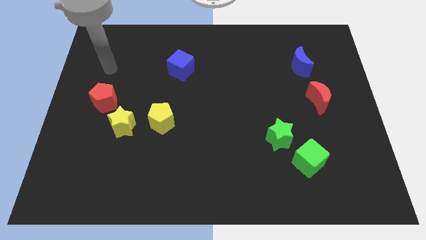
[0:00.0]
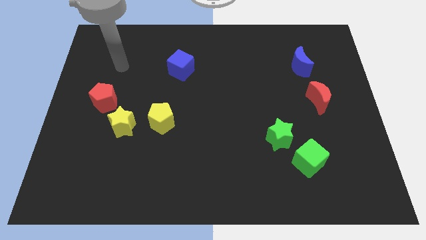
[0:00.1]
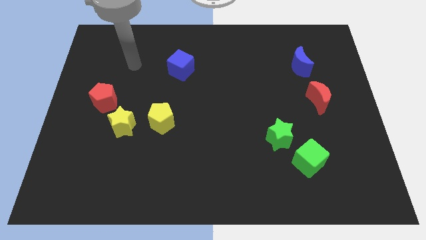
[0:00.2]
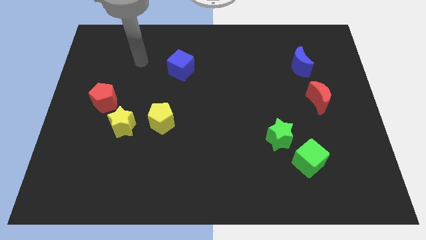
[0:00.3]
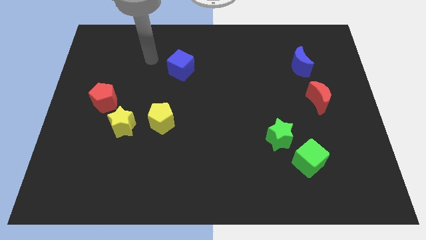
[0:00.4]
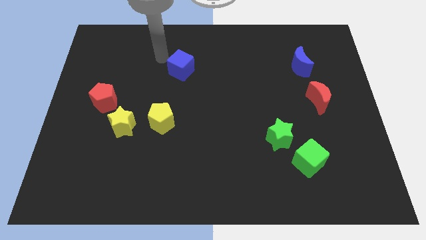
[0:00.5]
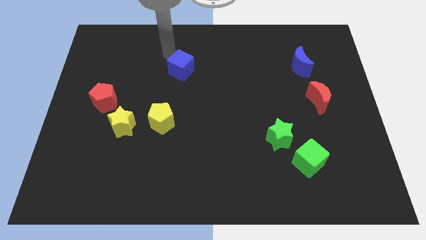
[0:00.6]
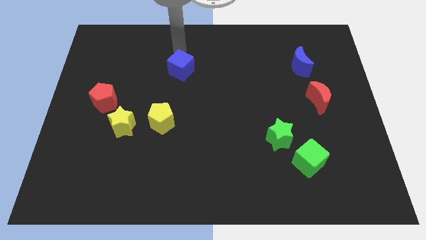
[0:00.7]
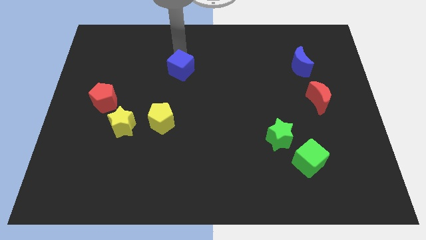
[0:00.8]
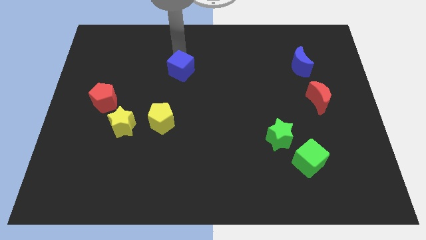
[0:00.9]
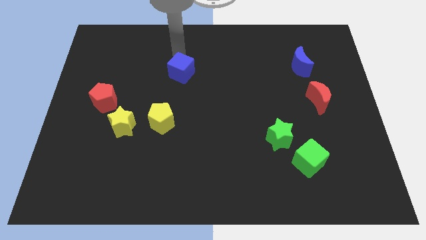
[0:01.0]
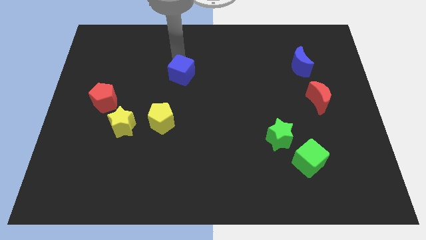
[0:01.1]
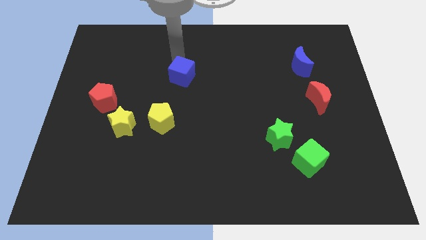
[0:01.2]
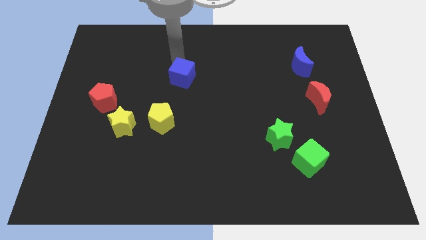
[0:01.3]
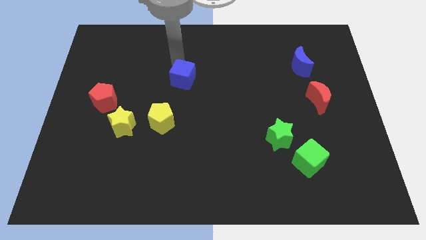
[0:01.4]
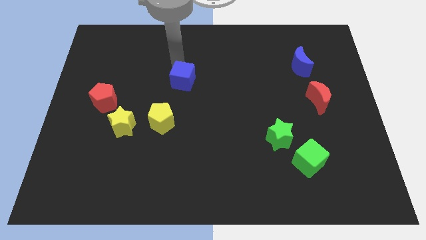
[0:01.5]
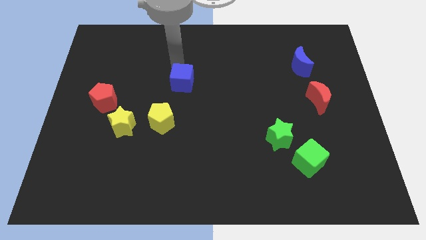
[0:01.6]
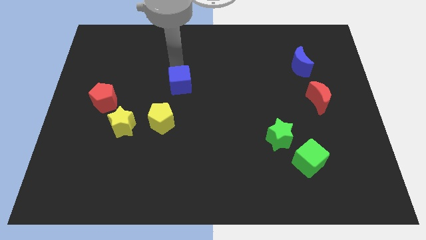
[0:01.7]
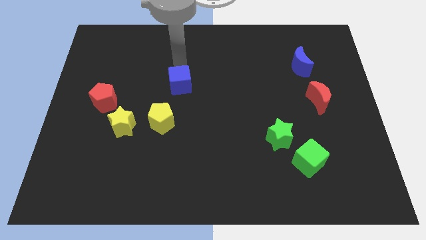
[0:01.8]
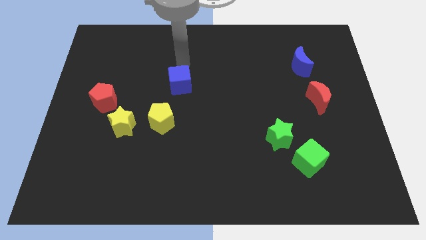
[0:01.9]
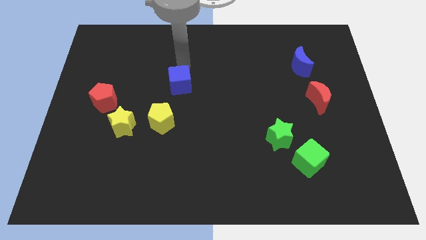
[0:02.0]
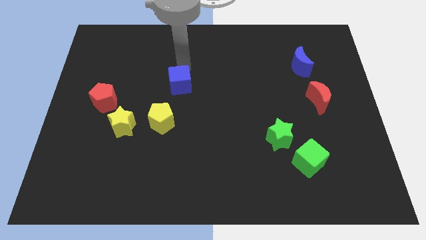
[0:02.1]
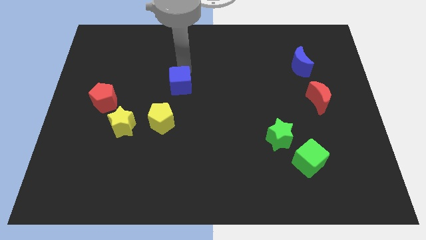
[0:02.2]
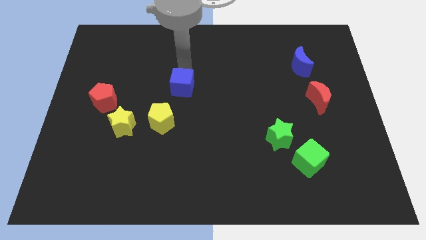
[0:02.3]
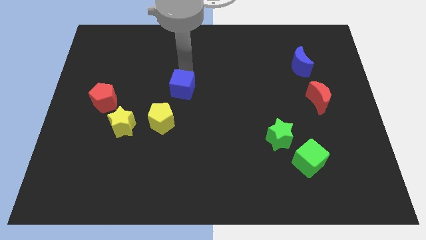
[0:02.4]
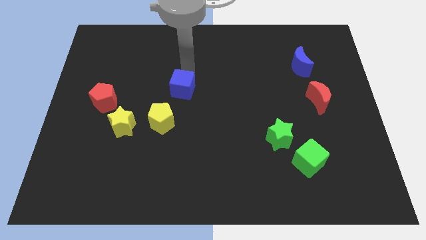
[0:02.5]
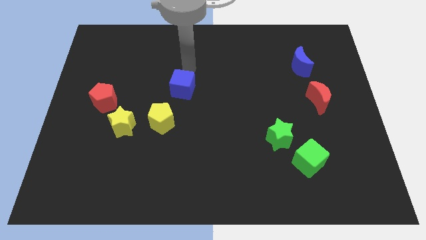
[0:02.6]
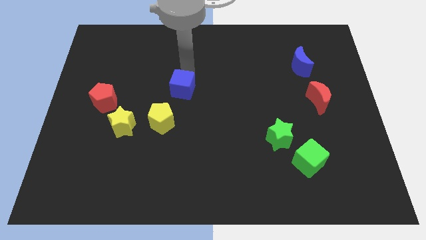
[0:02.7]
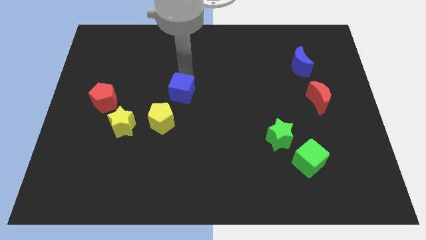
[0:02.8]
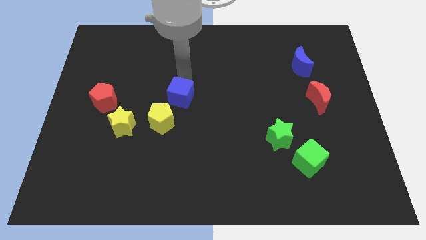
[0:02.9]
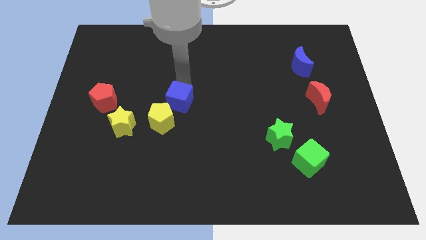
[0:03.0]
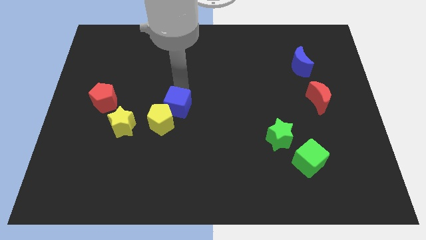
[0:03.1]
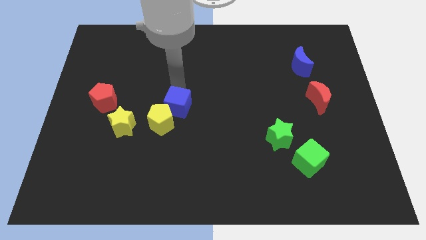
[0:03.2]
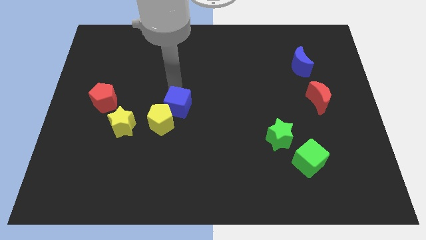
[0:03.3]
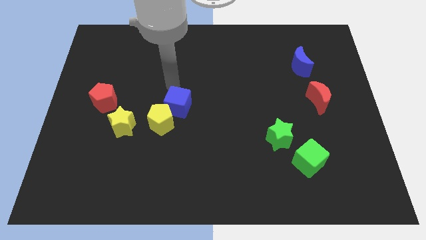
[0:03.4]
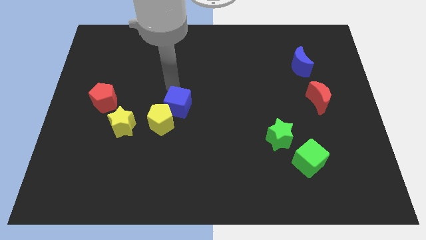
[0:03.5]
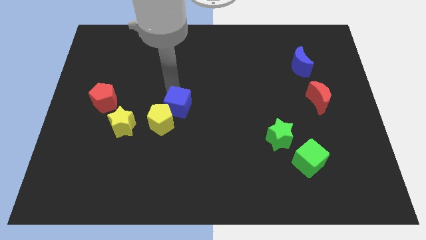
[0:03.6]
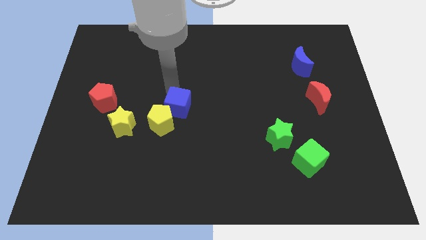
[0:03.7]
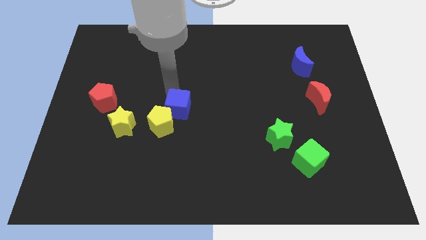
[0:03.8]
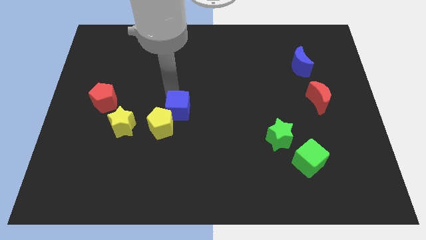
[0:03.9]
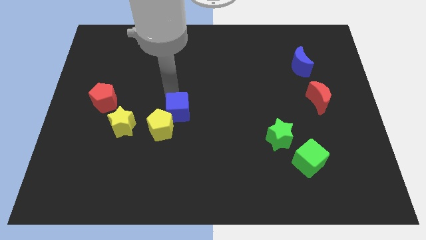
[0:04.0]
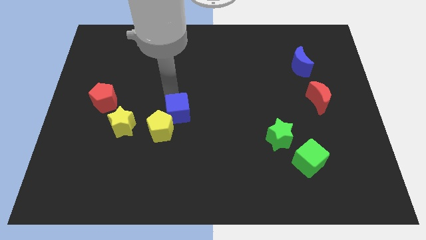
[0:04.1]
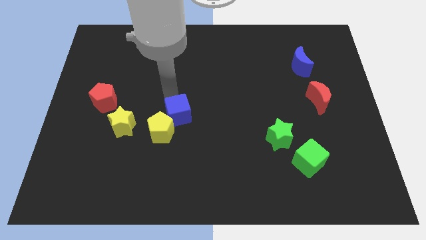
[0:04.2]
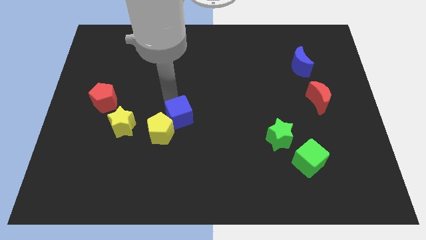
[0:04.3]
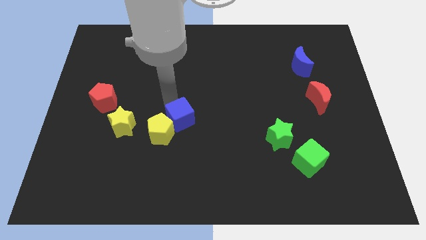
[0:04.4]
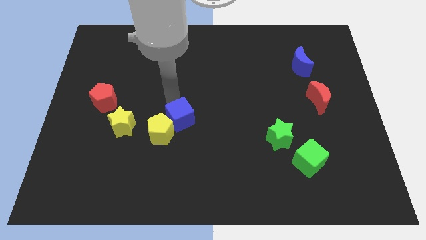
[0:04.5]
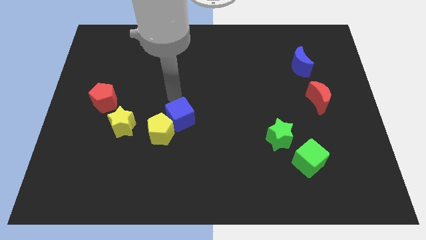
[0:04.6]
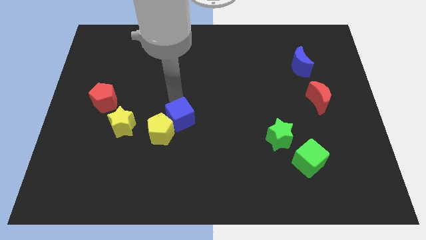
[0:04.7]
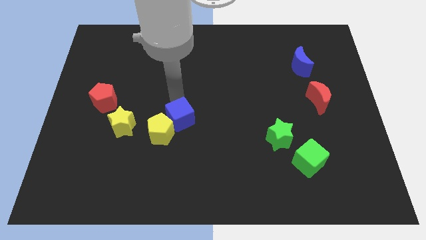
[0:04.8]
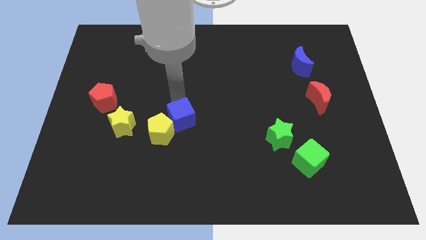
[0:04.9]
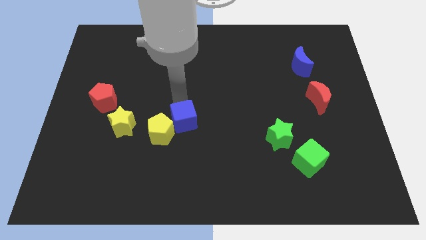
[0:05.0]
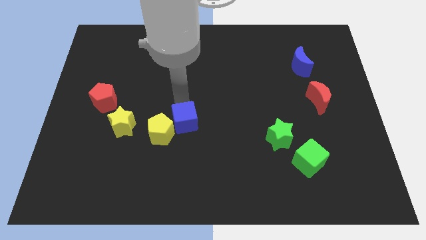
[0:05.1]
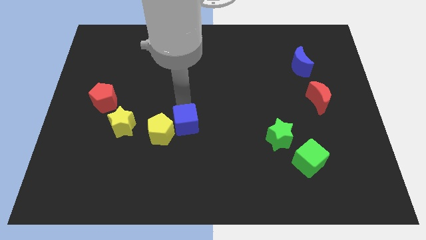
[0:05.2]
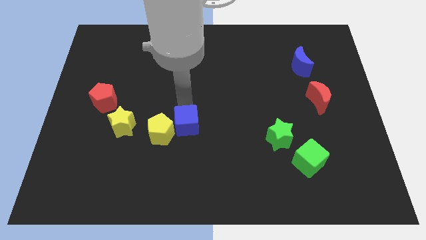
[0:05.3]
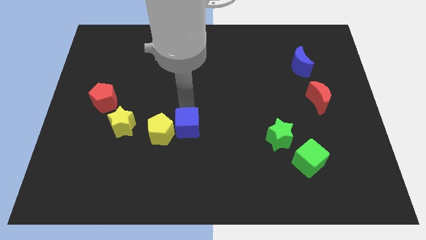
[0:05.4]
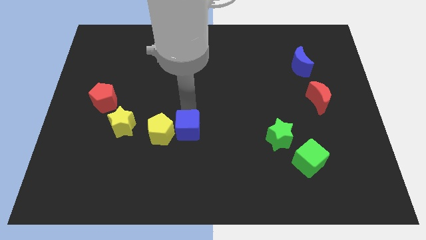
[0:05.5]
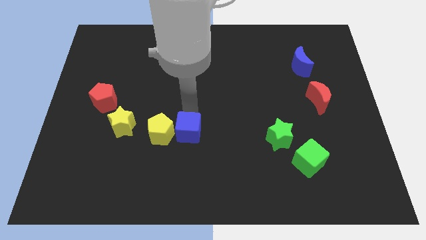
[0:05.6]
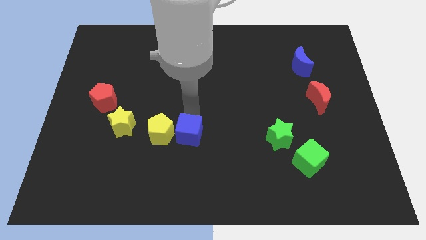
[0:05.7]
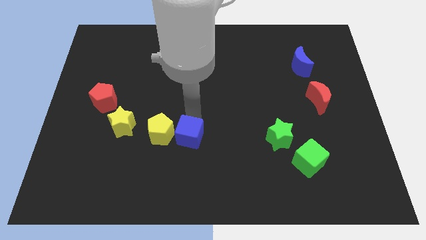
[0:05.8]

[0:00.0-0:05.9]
slide the blue cube downwards

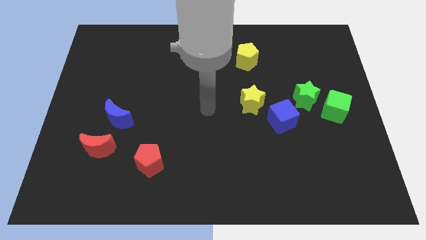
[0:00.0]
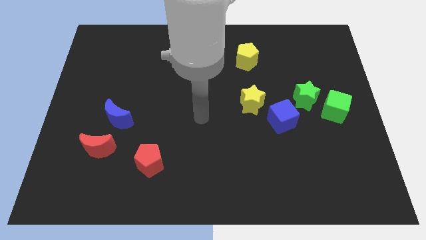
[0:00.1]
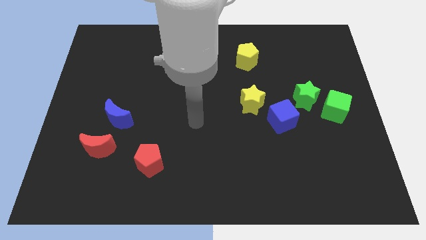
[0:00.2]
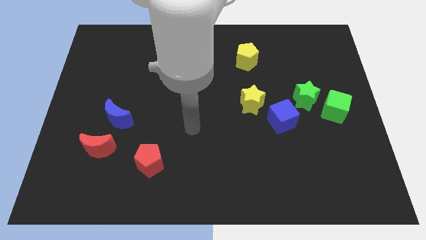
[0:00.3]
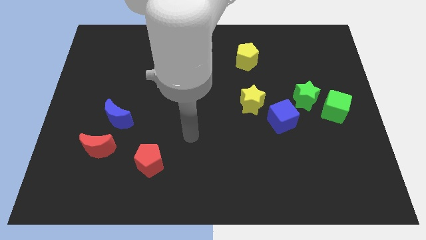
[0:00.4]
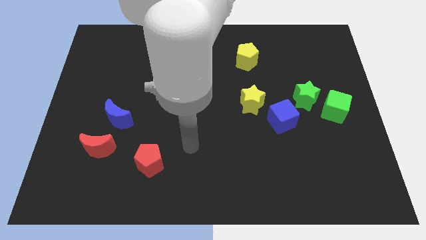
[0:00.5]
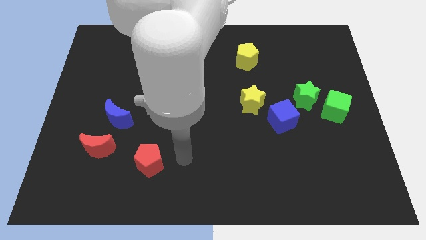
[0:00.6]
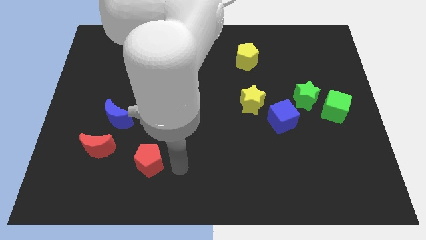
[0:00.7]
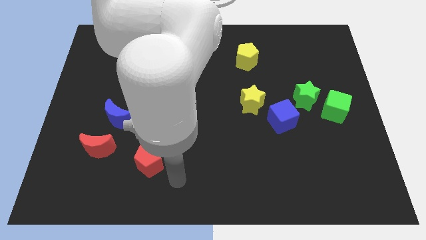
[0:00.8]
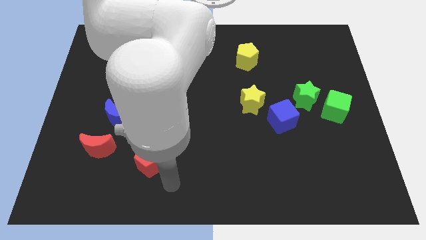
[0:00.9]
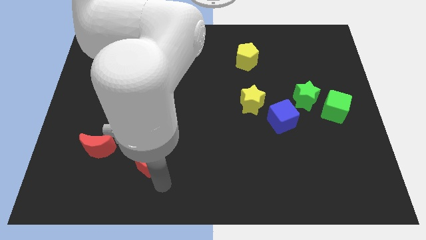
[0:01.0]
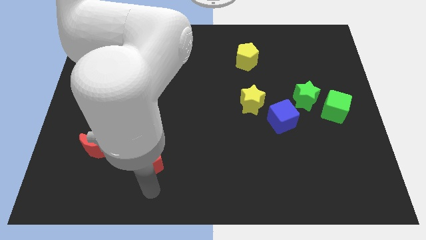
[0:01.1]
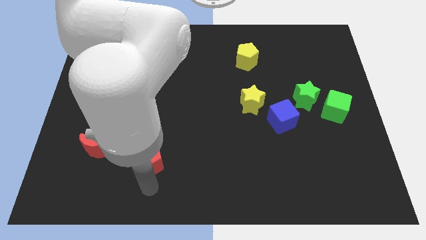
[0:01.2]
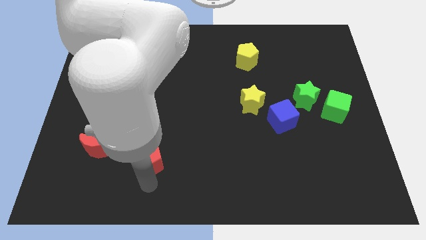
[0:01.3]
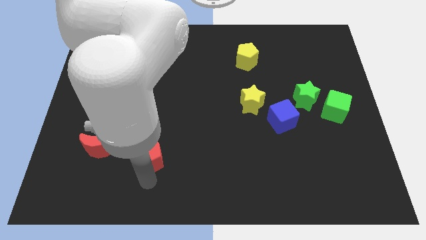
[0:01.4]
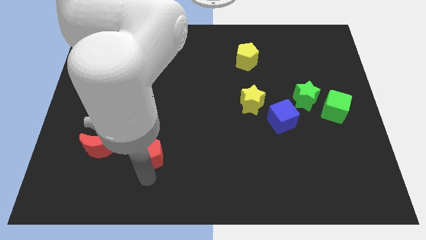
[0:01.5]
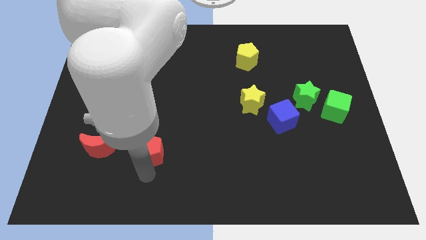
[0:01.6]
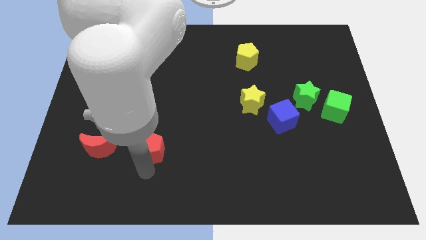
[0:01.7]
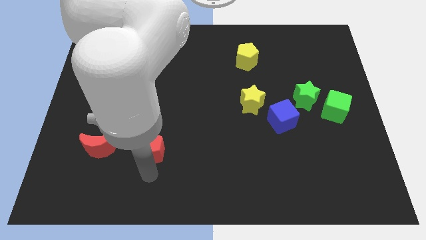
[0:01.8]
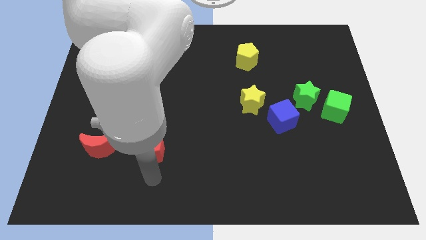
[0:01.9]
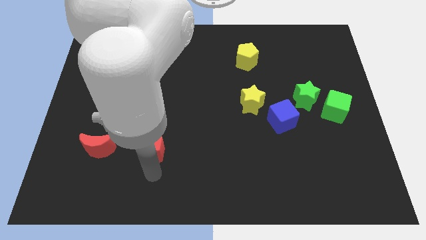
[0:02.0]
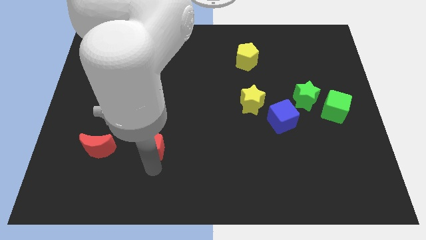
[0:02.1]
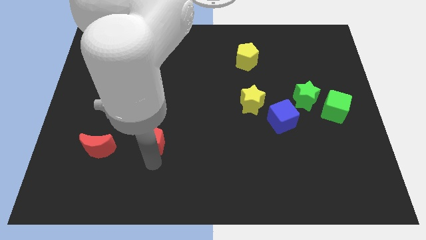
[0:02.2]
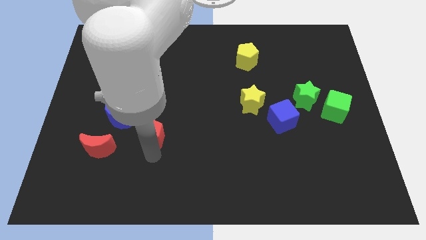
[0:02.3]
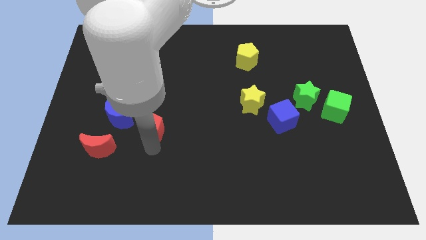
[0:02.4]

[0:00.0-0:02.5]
push the red pentagon somewhat upwards
